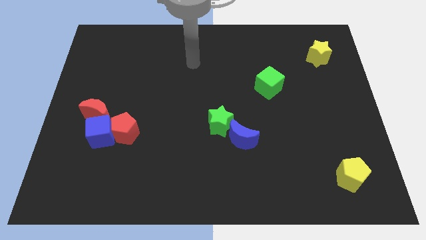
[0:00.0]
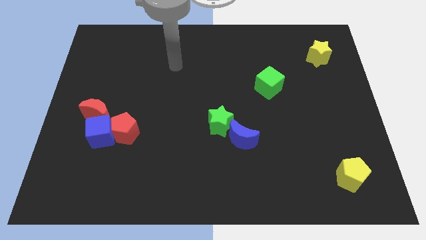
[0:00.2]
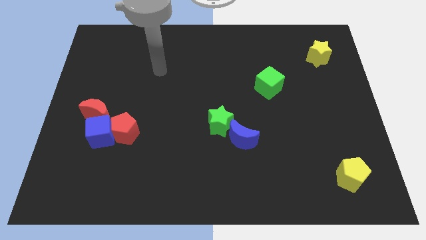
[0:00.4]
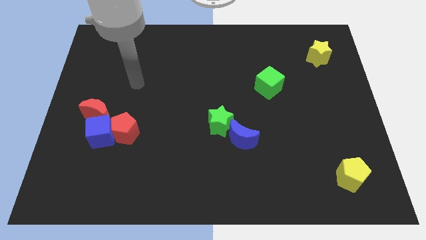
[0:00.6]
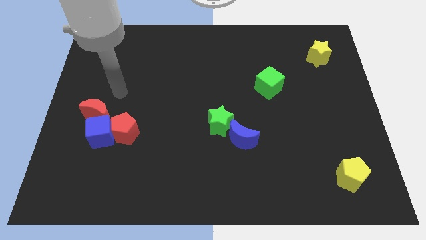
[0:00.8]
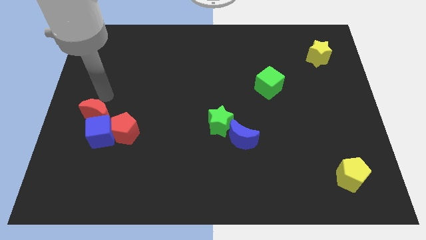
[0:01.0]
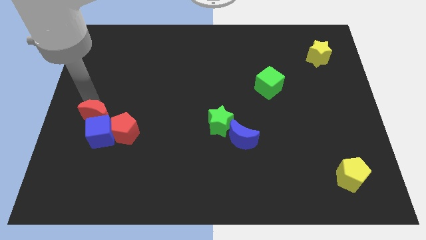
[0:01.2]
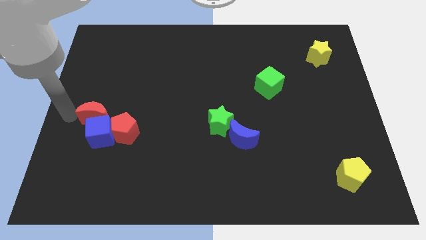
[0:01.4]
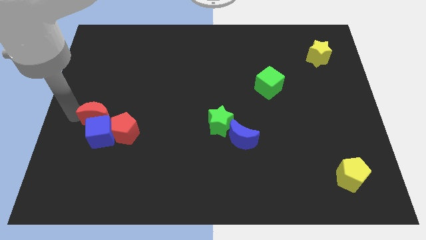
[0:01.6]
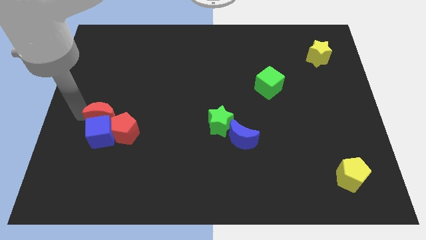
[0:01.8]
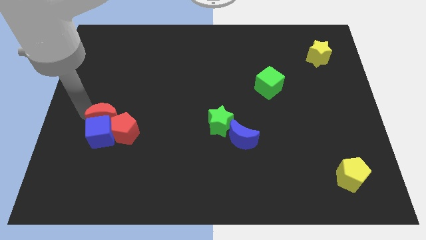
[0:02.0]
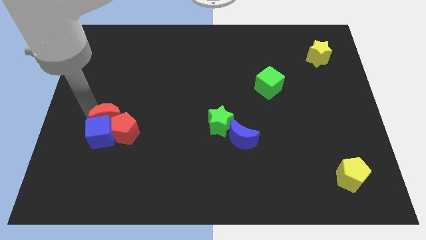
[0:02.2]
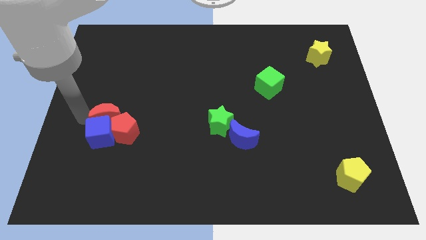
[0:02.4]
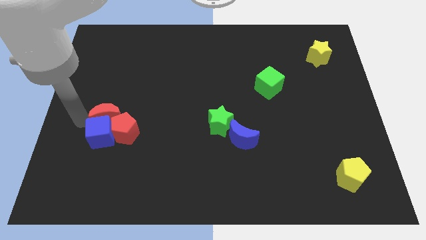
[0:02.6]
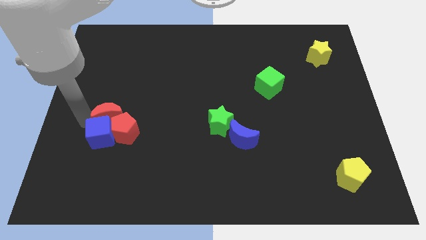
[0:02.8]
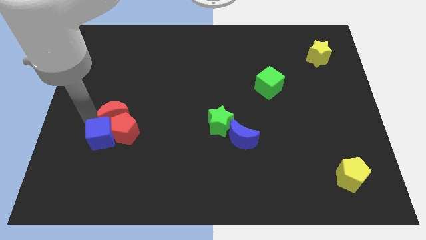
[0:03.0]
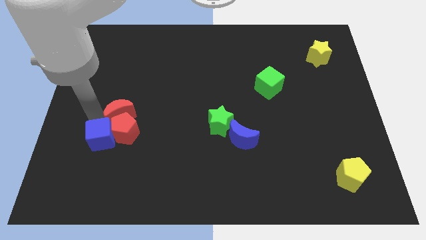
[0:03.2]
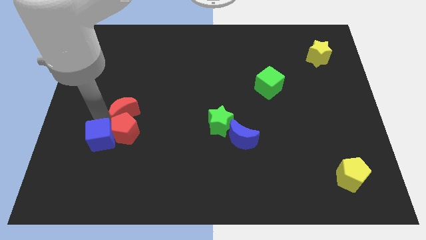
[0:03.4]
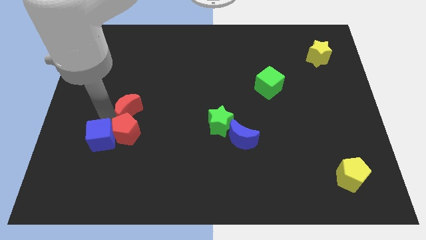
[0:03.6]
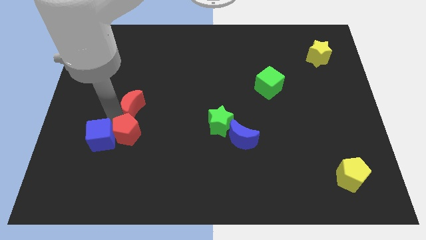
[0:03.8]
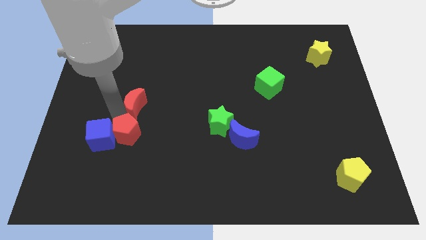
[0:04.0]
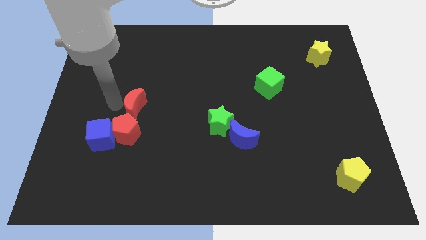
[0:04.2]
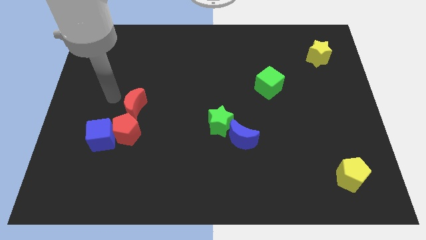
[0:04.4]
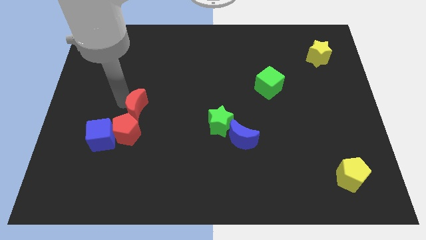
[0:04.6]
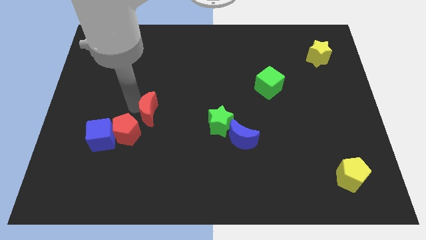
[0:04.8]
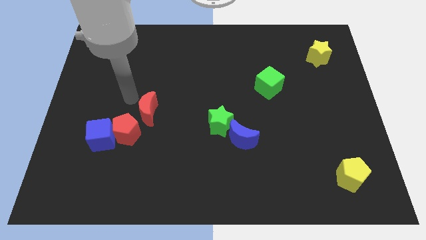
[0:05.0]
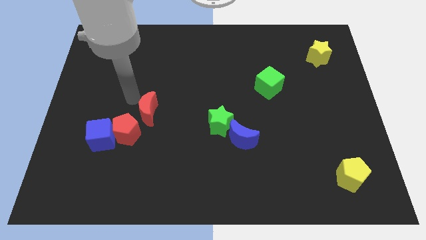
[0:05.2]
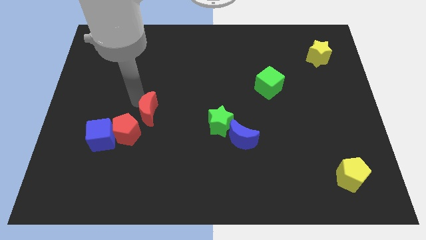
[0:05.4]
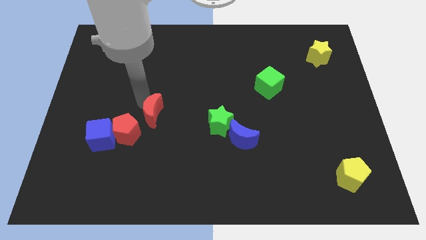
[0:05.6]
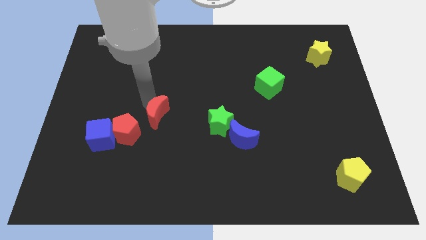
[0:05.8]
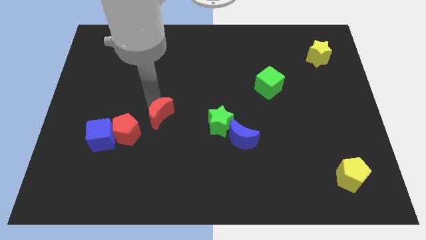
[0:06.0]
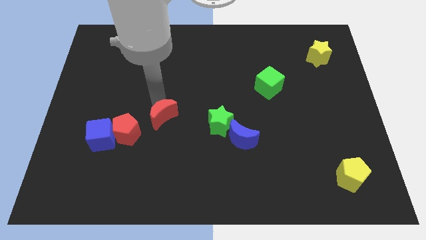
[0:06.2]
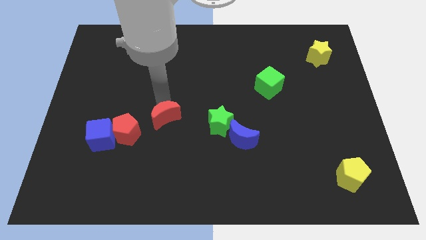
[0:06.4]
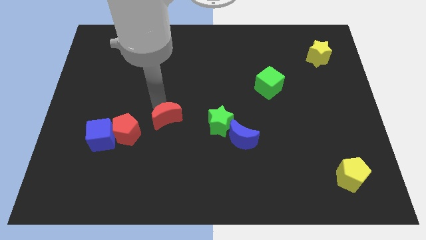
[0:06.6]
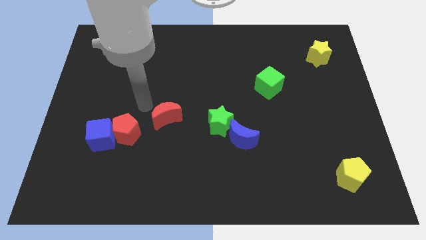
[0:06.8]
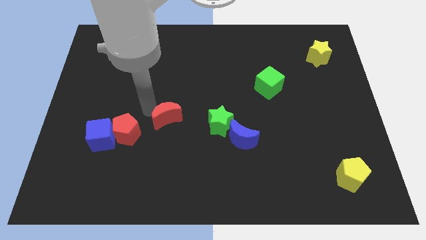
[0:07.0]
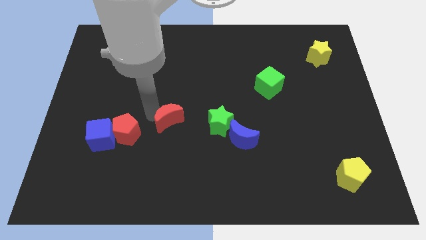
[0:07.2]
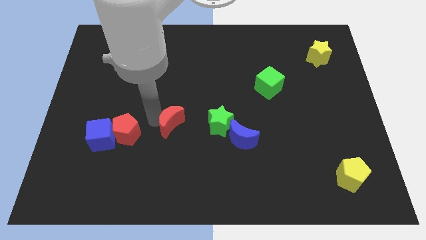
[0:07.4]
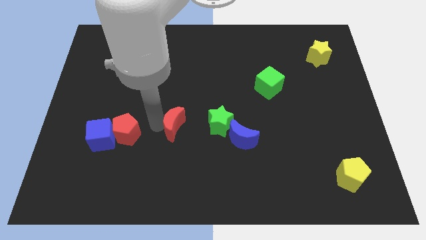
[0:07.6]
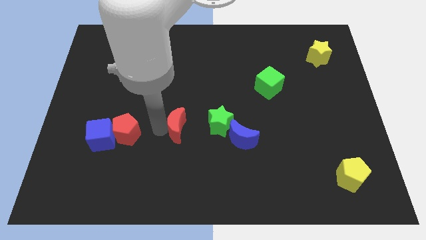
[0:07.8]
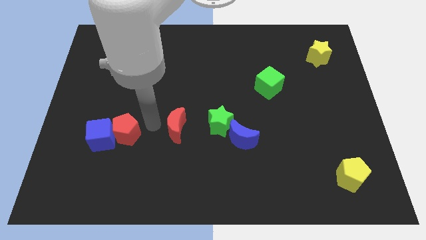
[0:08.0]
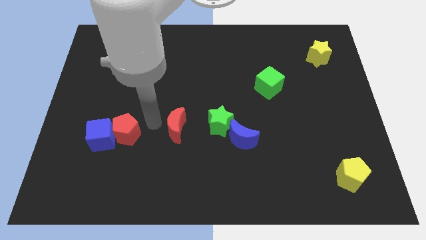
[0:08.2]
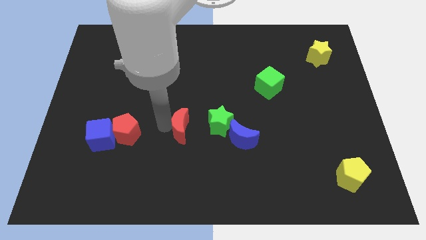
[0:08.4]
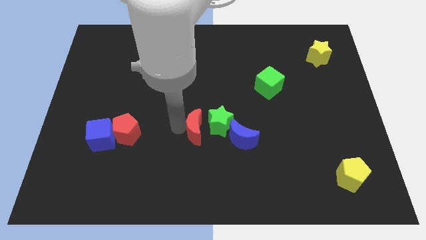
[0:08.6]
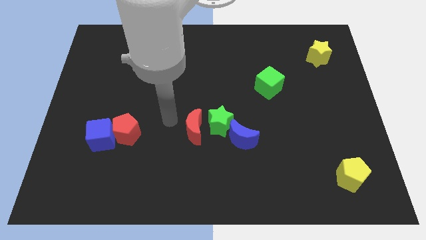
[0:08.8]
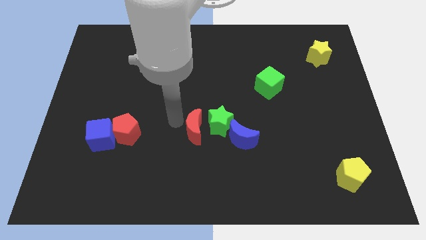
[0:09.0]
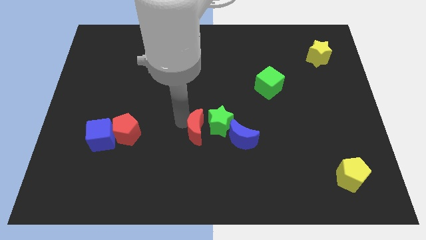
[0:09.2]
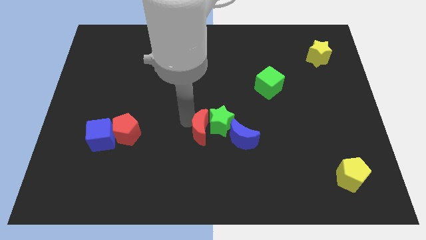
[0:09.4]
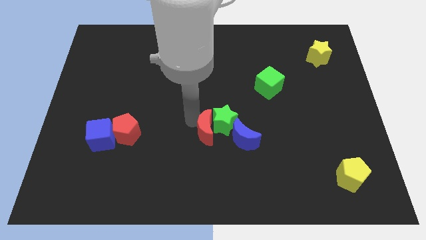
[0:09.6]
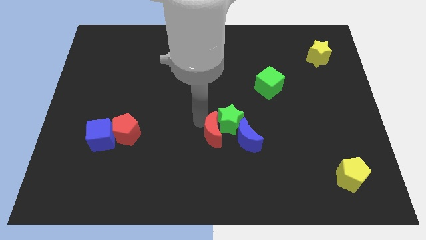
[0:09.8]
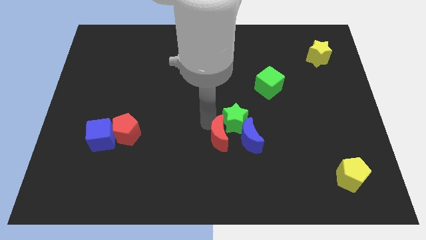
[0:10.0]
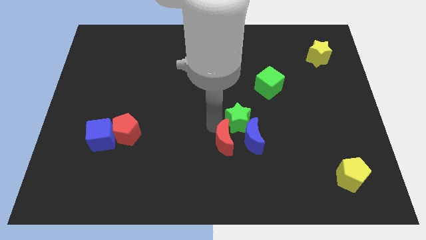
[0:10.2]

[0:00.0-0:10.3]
slide the red moon close to the blue moon

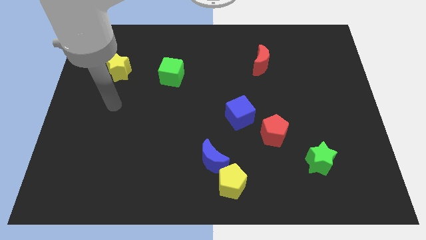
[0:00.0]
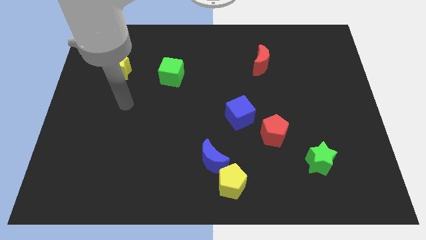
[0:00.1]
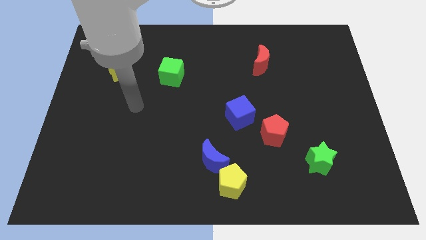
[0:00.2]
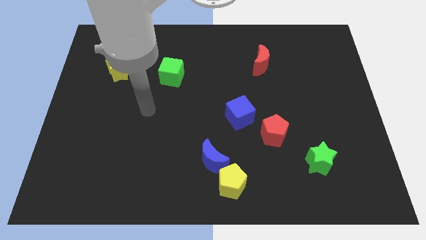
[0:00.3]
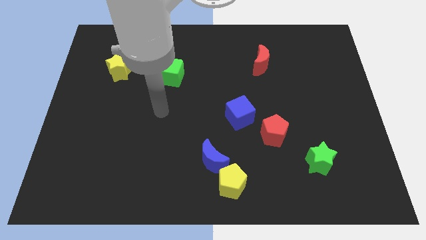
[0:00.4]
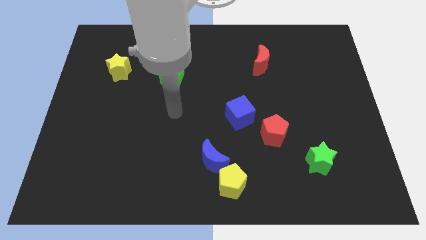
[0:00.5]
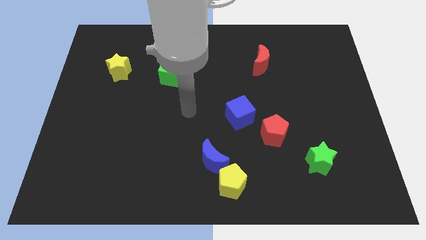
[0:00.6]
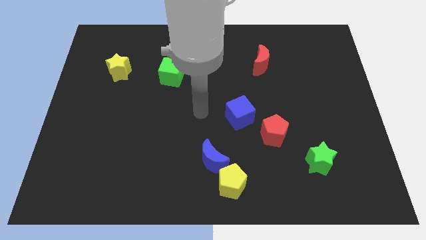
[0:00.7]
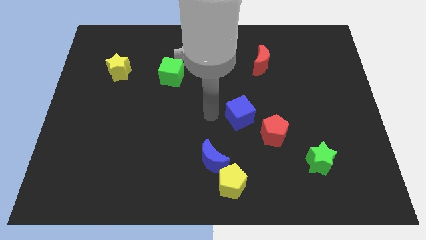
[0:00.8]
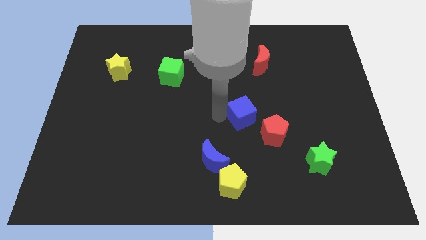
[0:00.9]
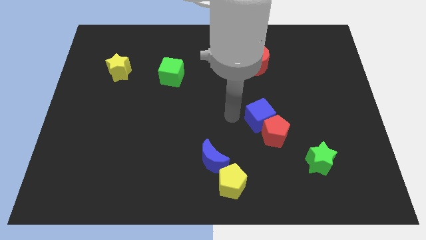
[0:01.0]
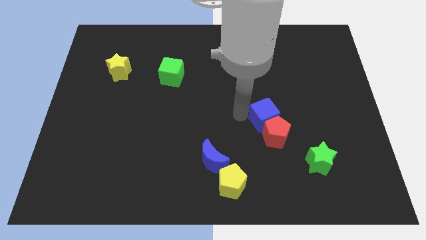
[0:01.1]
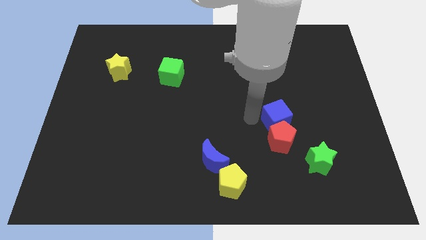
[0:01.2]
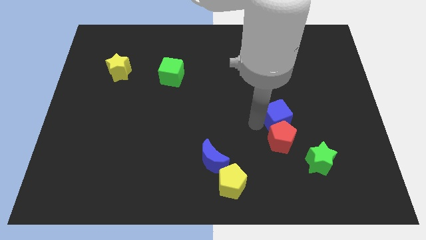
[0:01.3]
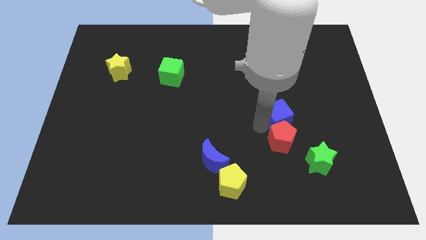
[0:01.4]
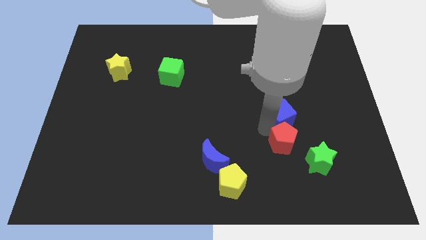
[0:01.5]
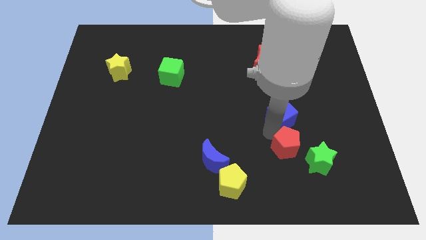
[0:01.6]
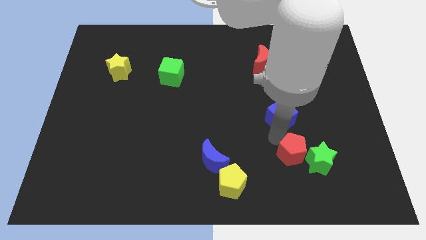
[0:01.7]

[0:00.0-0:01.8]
slide the red pentagon to the green star

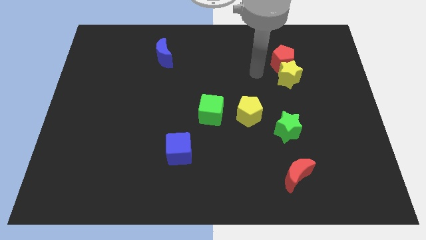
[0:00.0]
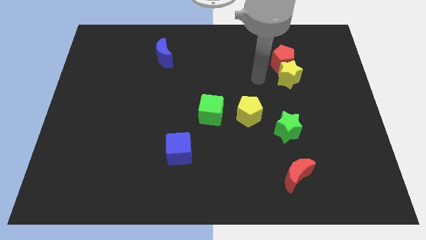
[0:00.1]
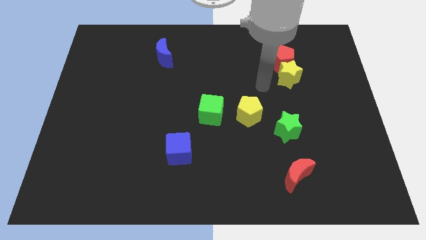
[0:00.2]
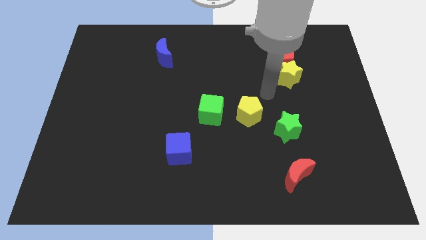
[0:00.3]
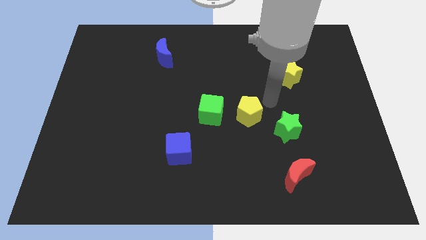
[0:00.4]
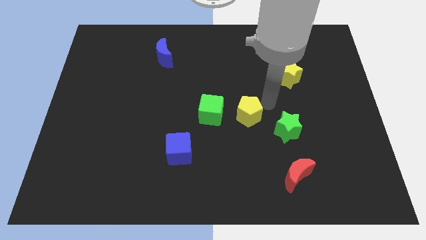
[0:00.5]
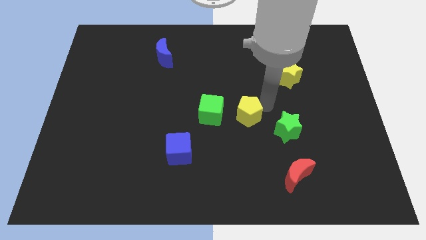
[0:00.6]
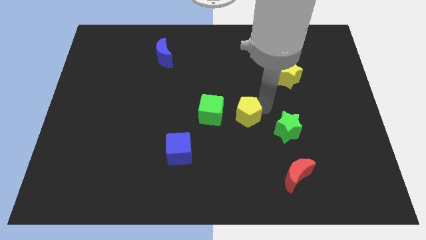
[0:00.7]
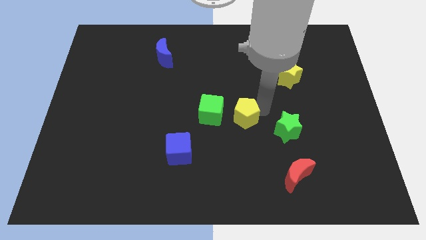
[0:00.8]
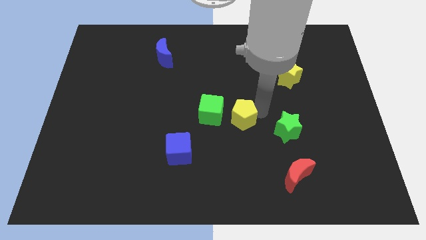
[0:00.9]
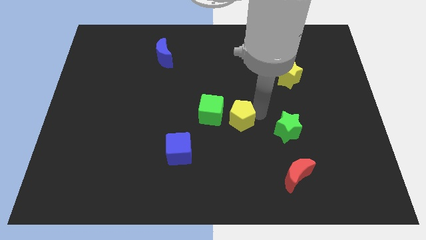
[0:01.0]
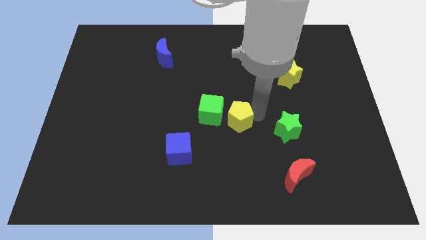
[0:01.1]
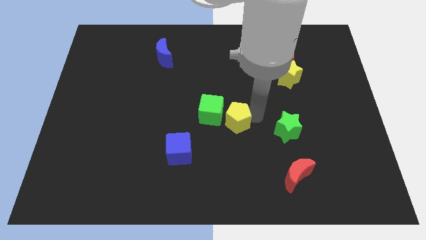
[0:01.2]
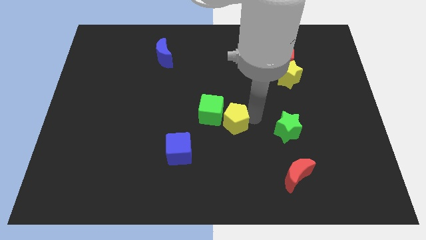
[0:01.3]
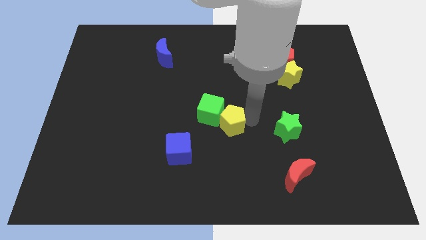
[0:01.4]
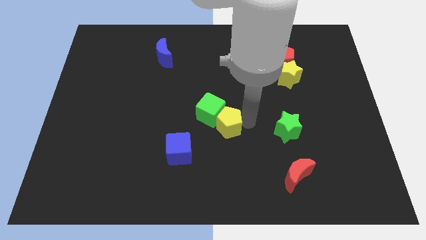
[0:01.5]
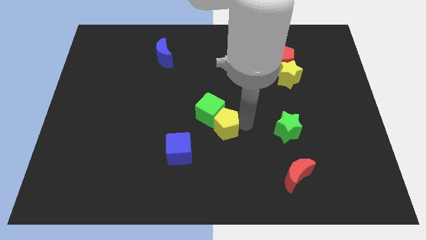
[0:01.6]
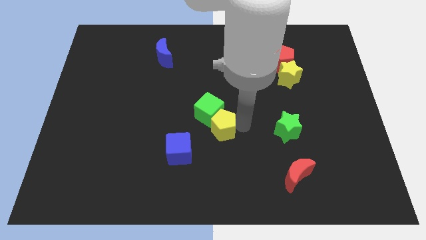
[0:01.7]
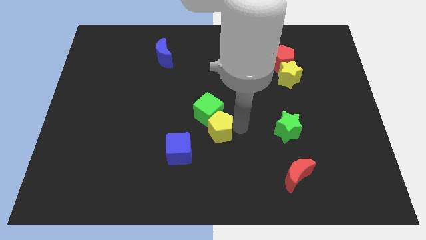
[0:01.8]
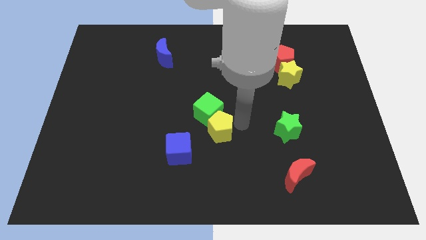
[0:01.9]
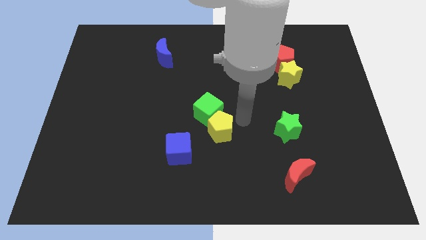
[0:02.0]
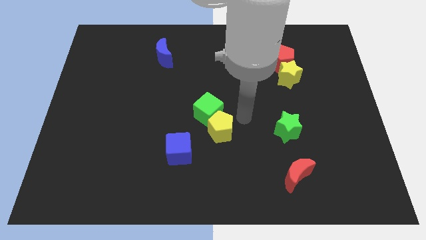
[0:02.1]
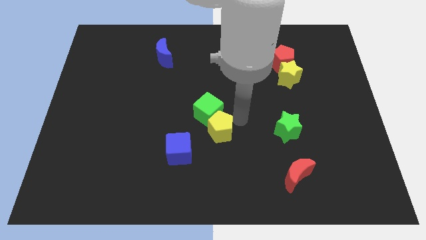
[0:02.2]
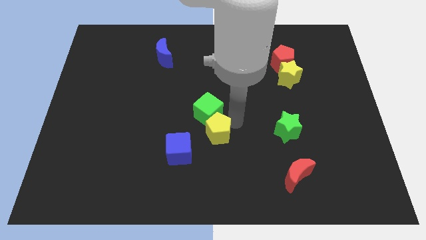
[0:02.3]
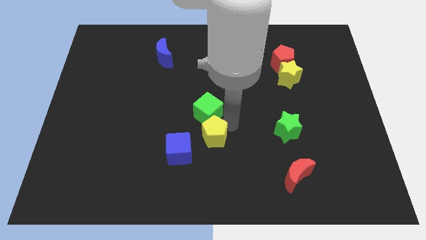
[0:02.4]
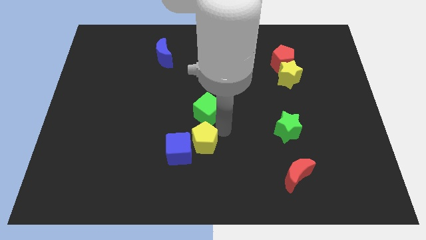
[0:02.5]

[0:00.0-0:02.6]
push the yellow pentagon close to the blue cube
